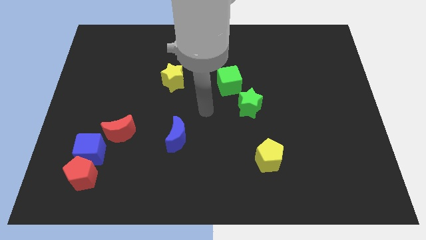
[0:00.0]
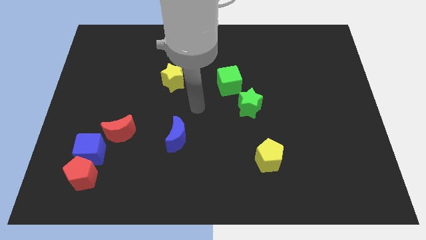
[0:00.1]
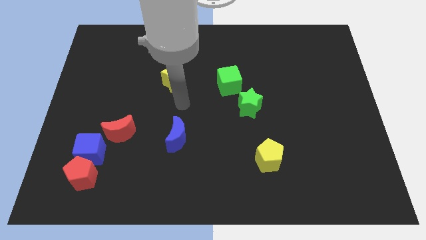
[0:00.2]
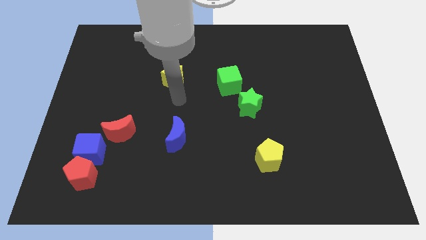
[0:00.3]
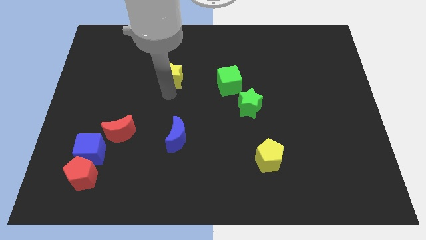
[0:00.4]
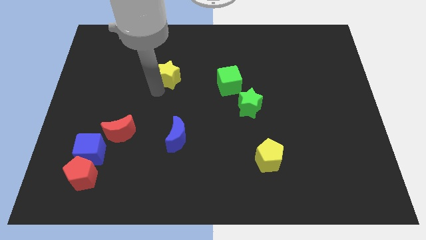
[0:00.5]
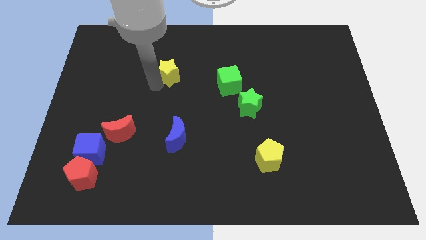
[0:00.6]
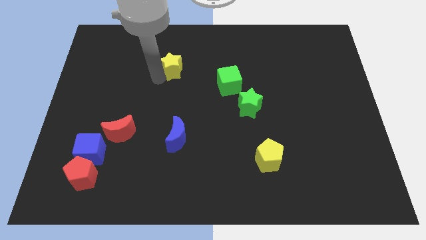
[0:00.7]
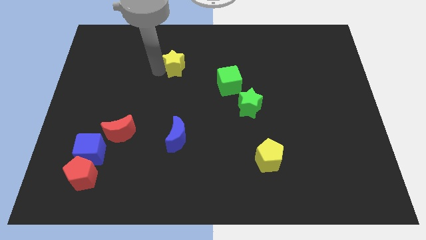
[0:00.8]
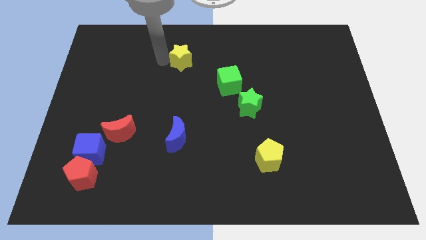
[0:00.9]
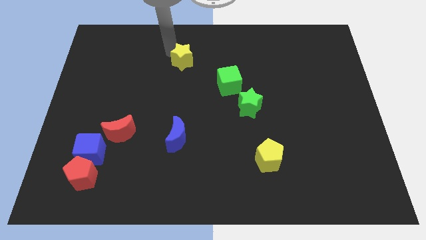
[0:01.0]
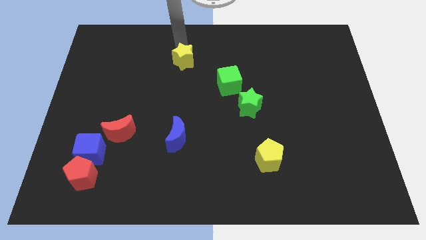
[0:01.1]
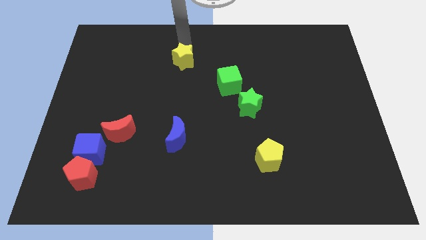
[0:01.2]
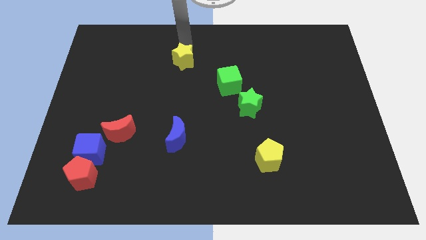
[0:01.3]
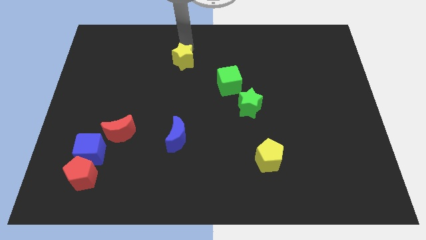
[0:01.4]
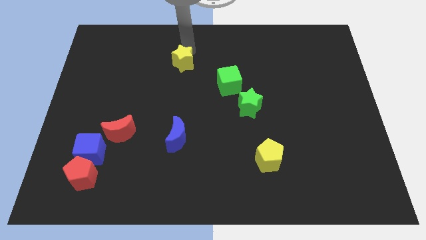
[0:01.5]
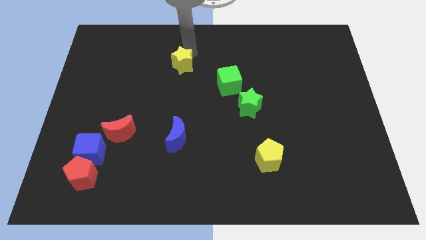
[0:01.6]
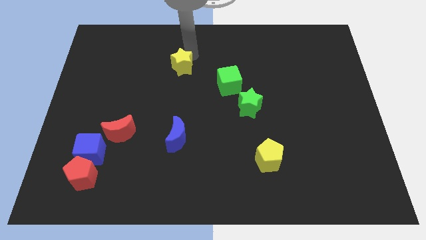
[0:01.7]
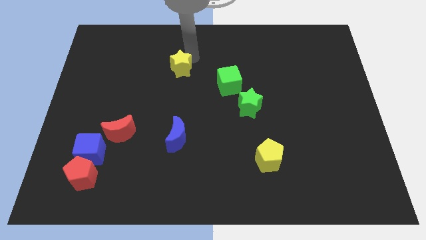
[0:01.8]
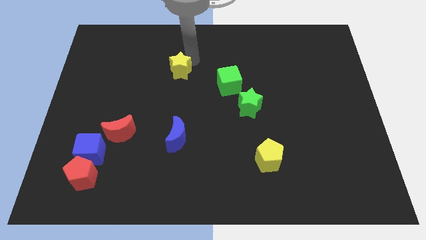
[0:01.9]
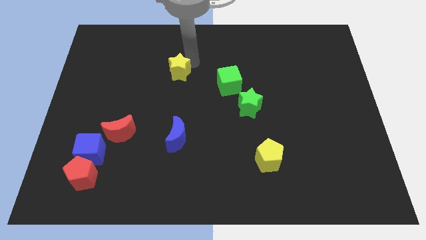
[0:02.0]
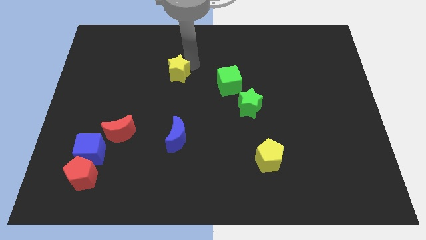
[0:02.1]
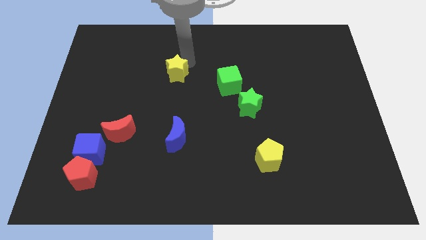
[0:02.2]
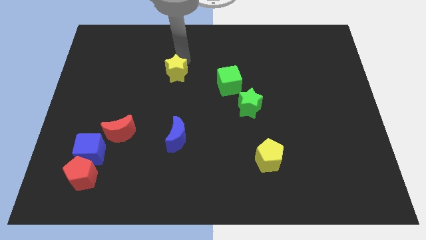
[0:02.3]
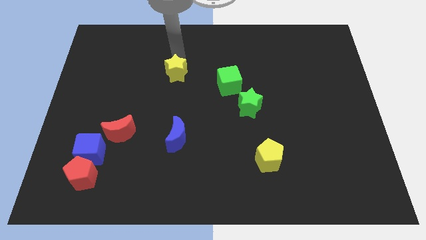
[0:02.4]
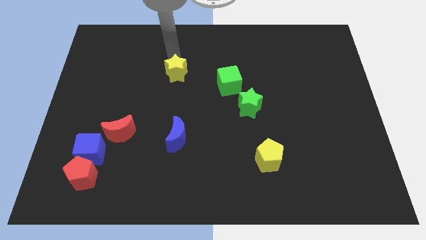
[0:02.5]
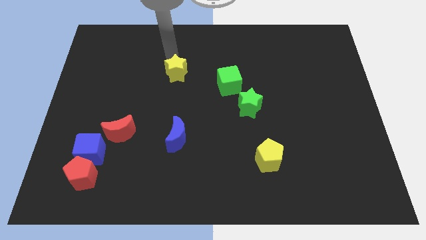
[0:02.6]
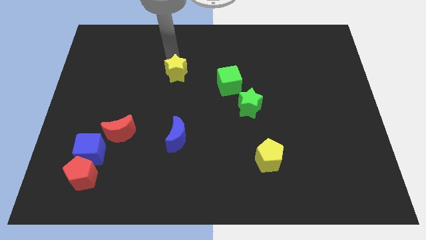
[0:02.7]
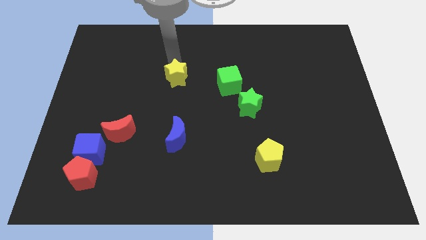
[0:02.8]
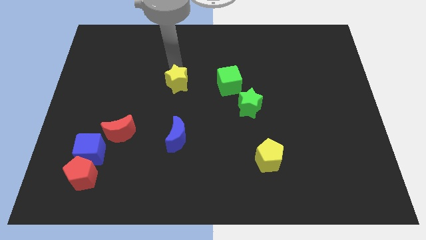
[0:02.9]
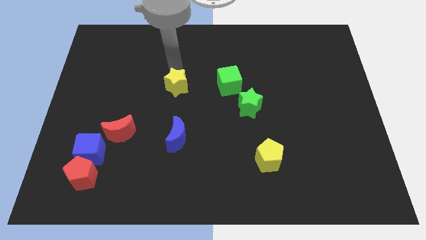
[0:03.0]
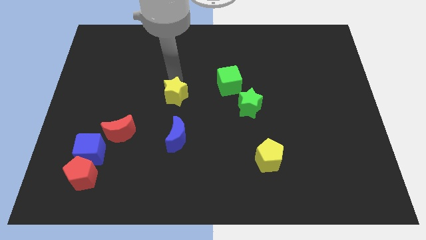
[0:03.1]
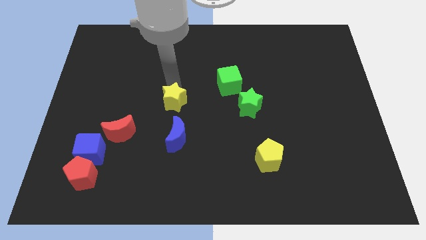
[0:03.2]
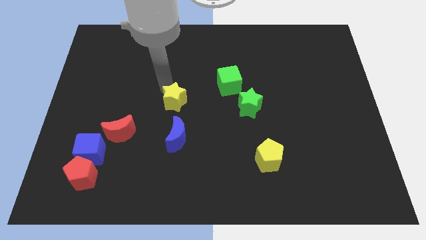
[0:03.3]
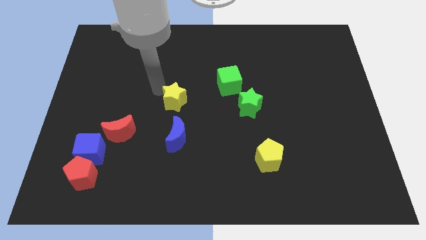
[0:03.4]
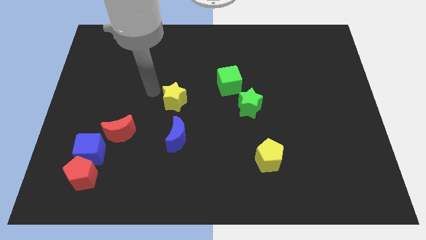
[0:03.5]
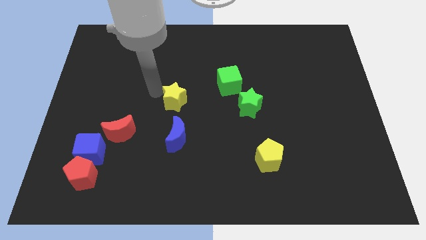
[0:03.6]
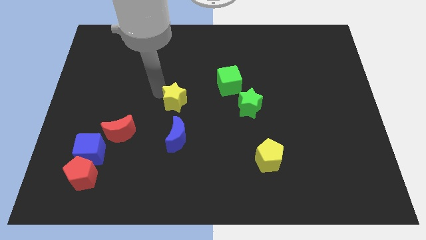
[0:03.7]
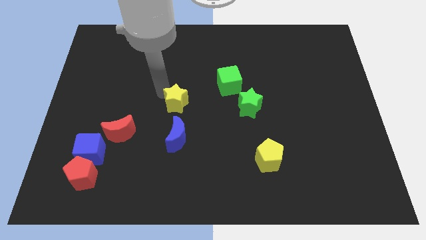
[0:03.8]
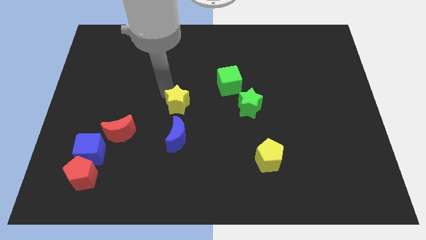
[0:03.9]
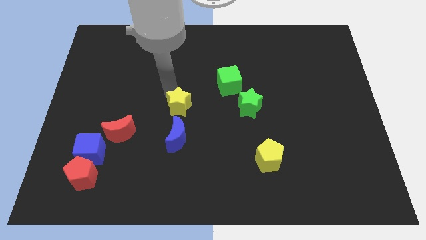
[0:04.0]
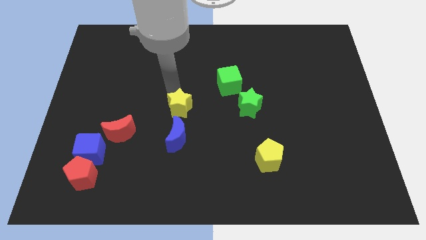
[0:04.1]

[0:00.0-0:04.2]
slightly push the yellow star downwards and right diagonally

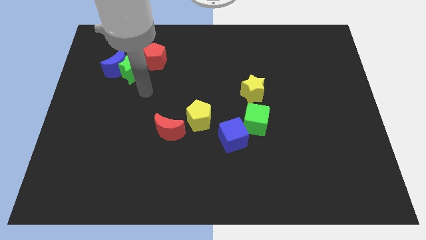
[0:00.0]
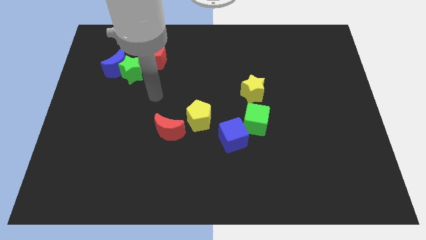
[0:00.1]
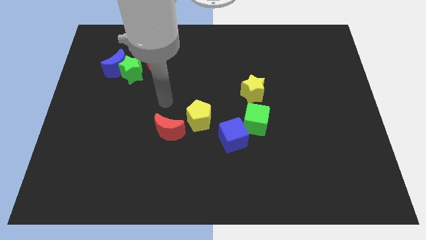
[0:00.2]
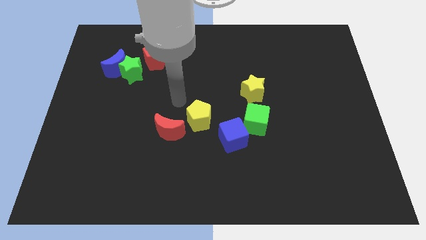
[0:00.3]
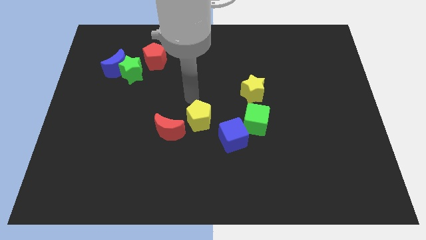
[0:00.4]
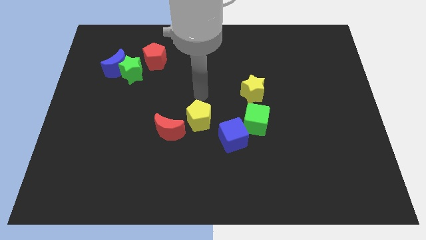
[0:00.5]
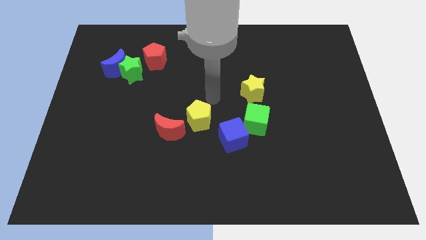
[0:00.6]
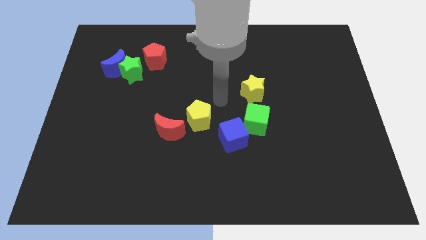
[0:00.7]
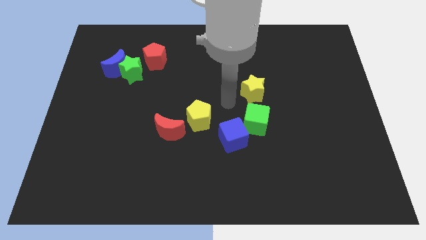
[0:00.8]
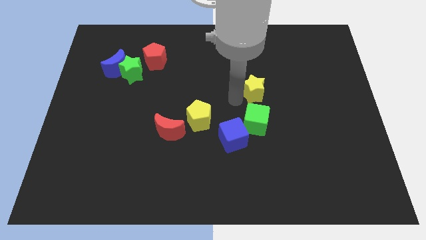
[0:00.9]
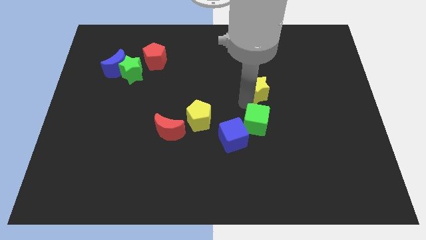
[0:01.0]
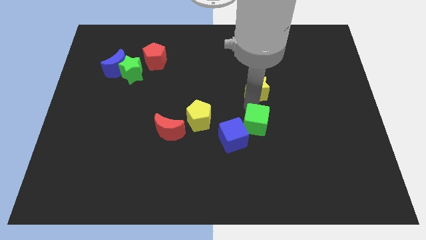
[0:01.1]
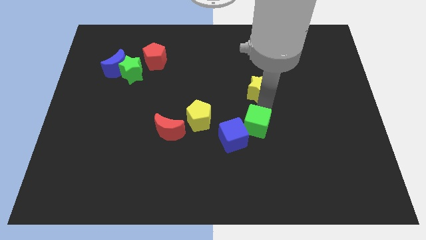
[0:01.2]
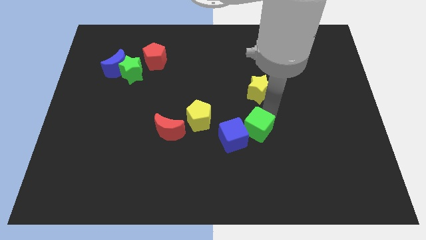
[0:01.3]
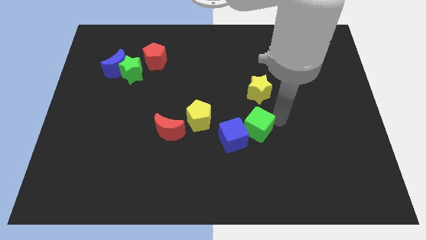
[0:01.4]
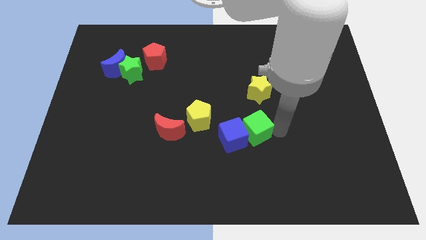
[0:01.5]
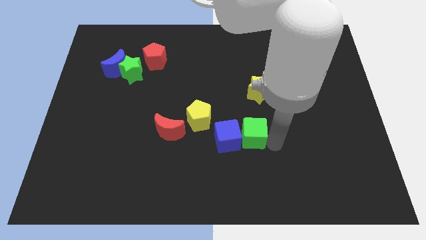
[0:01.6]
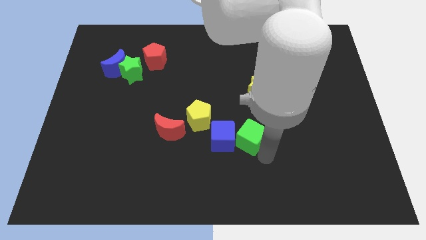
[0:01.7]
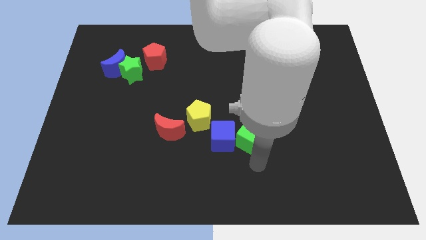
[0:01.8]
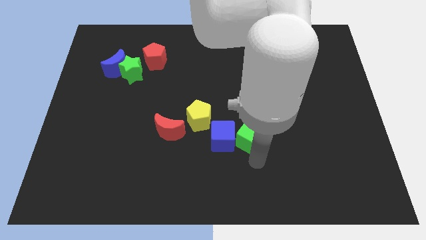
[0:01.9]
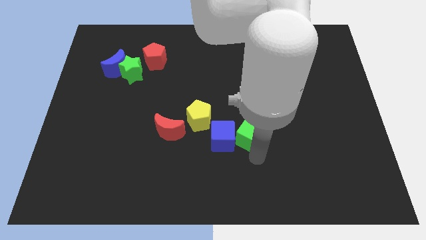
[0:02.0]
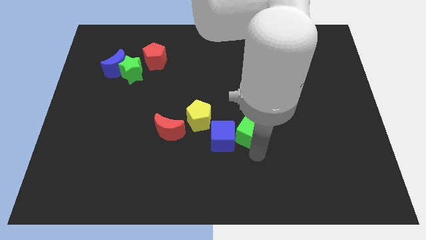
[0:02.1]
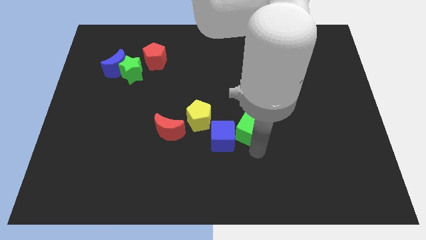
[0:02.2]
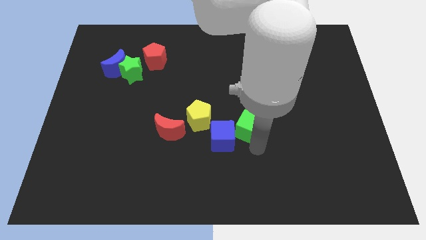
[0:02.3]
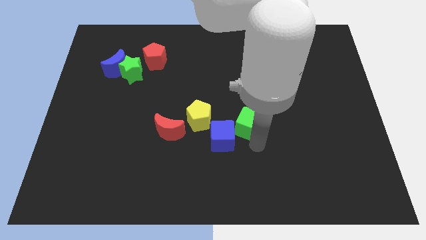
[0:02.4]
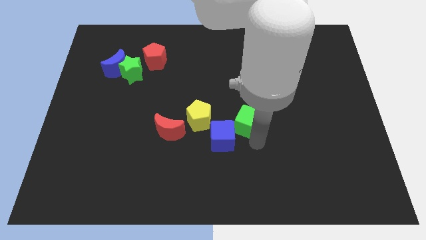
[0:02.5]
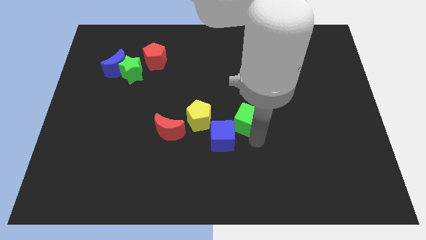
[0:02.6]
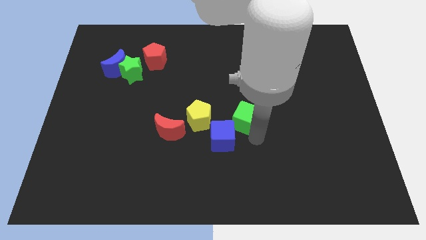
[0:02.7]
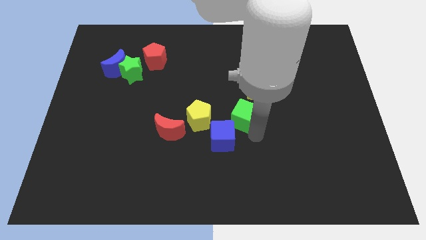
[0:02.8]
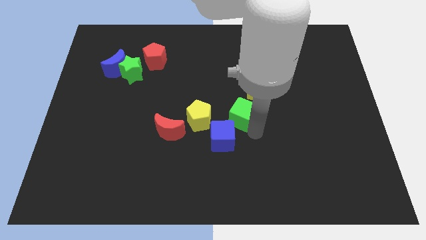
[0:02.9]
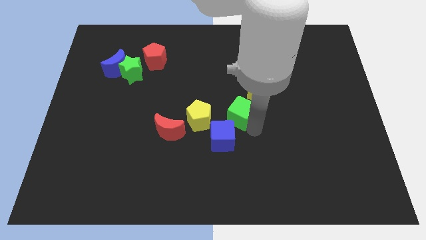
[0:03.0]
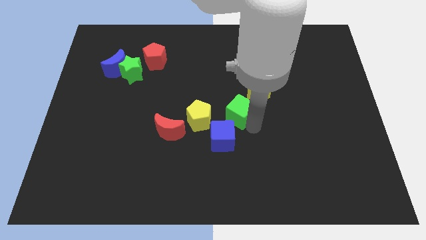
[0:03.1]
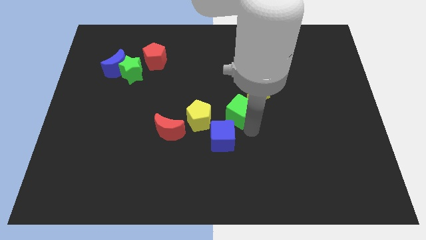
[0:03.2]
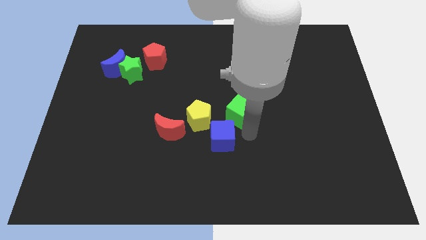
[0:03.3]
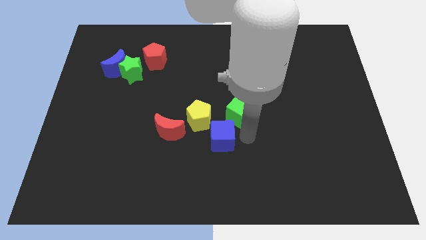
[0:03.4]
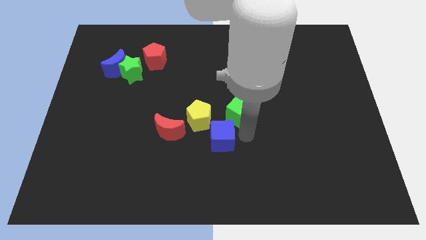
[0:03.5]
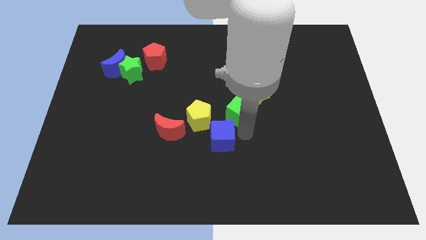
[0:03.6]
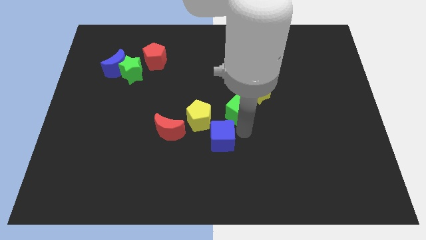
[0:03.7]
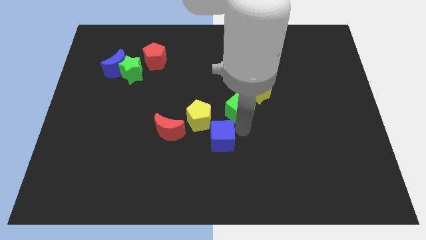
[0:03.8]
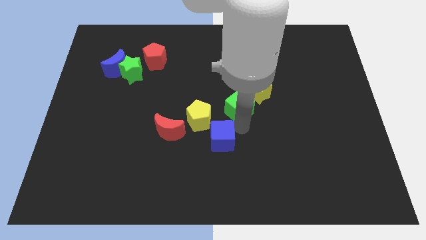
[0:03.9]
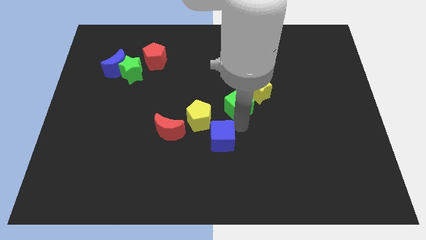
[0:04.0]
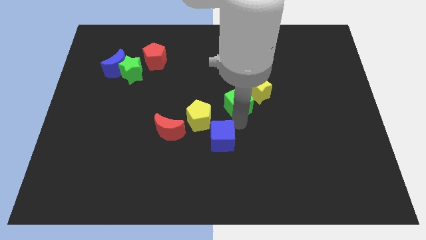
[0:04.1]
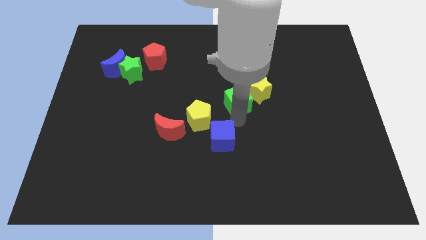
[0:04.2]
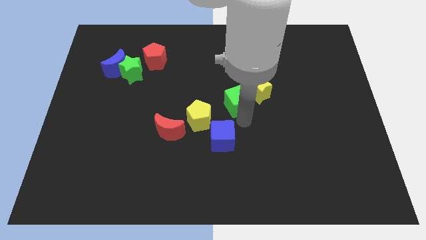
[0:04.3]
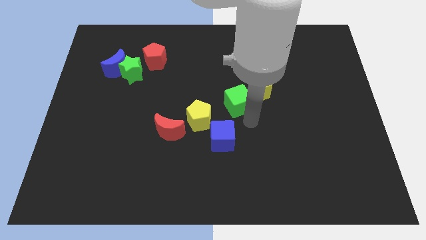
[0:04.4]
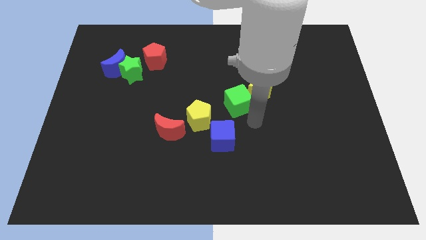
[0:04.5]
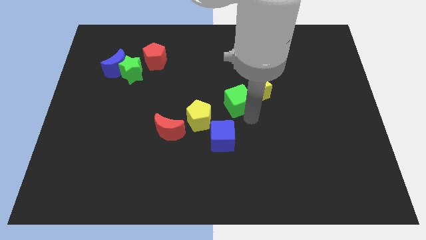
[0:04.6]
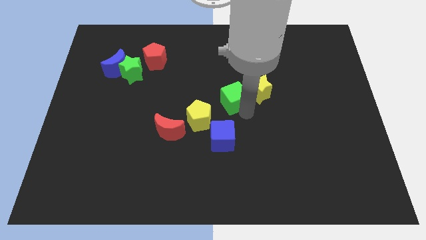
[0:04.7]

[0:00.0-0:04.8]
slide the green cube a bit upwards and left diagonally
